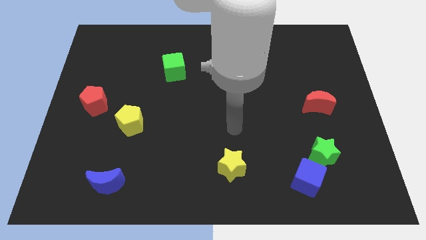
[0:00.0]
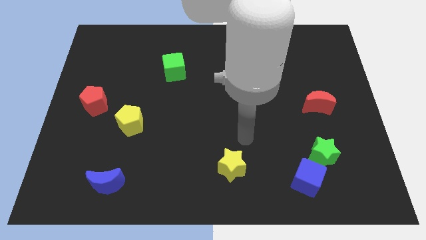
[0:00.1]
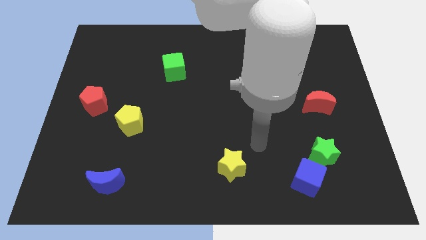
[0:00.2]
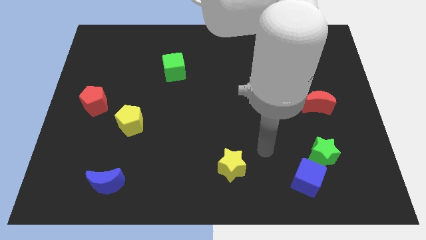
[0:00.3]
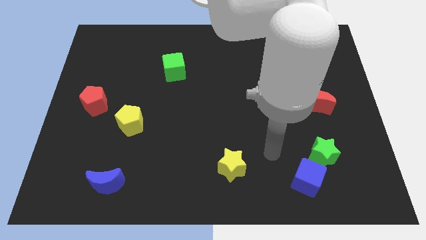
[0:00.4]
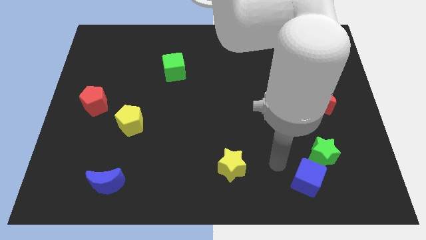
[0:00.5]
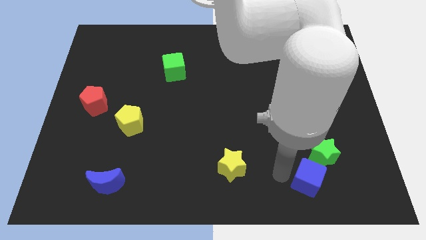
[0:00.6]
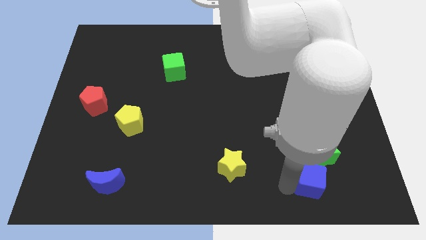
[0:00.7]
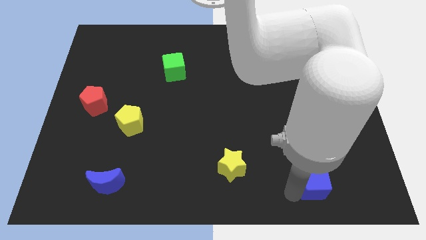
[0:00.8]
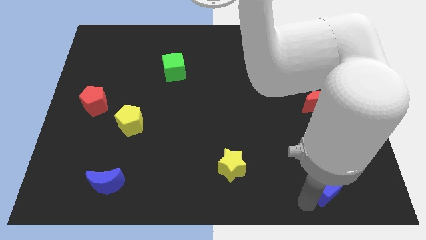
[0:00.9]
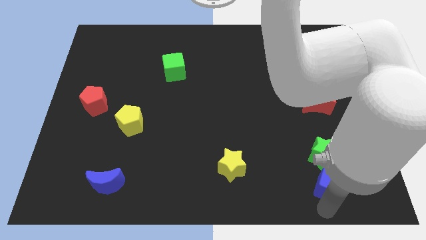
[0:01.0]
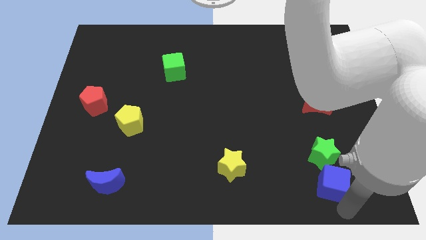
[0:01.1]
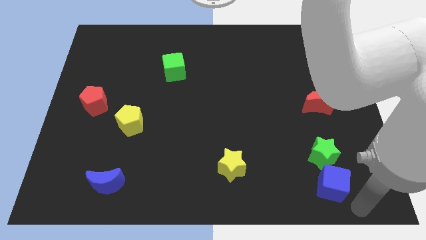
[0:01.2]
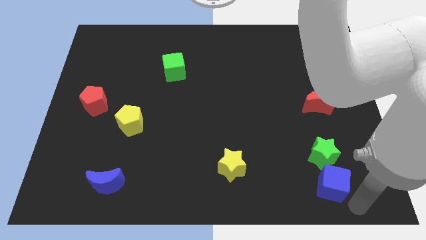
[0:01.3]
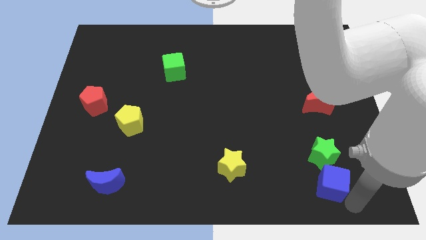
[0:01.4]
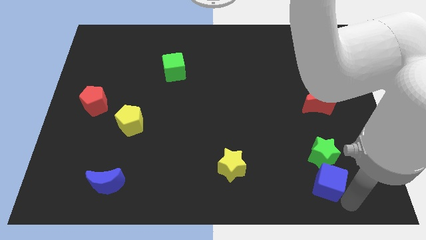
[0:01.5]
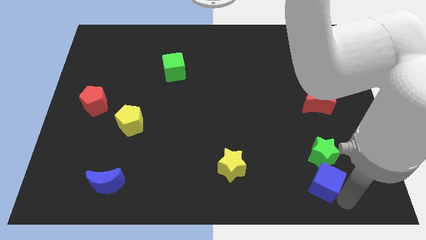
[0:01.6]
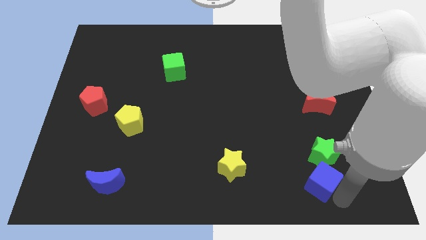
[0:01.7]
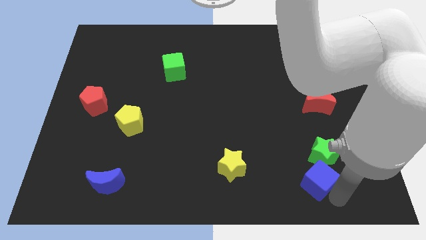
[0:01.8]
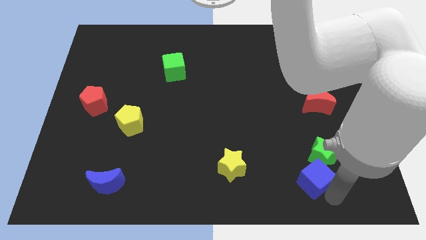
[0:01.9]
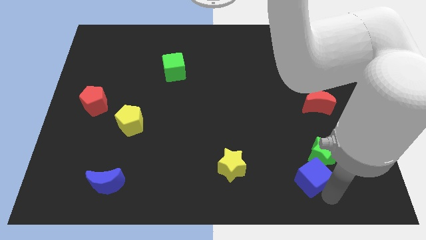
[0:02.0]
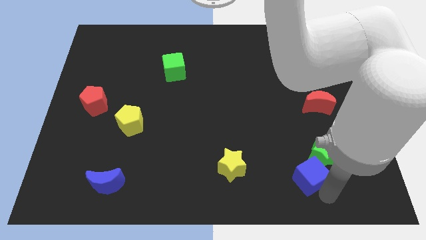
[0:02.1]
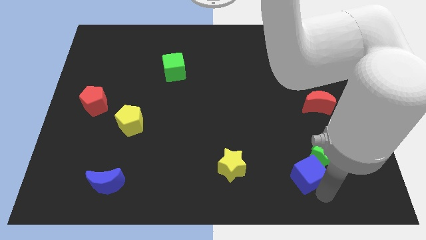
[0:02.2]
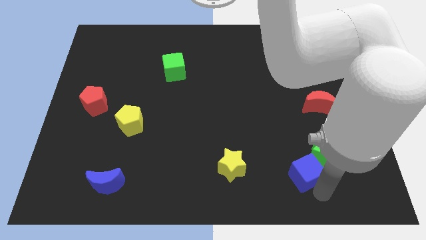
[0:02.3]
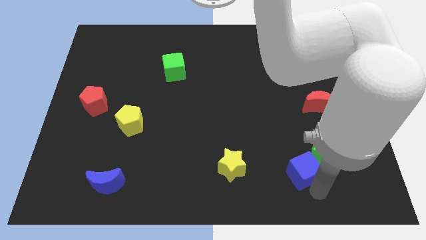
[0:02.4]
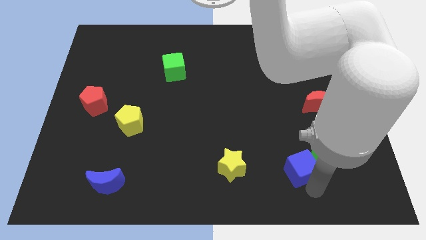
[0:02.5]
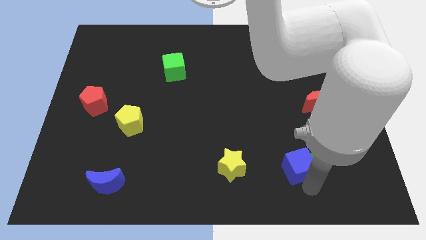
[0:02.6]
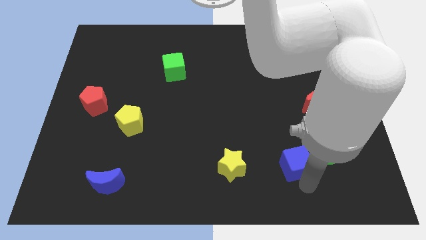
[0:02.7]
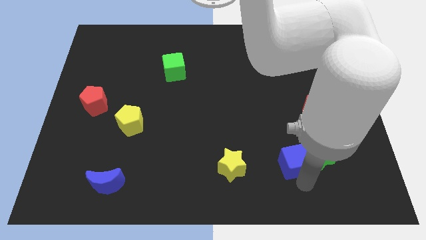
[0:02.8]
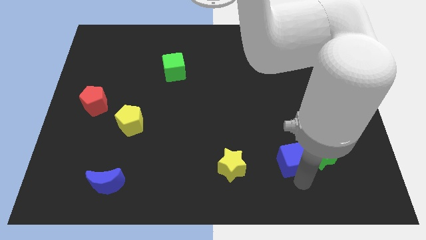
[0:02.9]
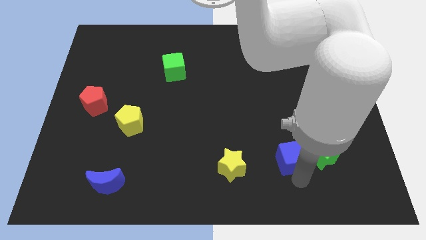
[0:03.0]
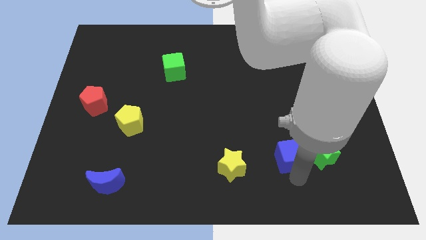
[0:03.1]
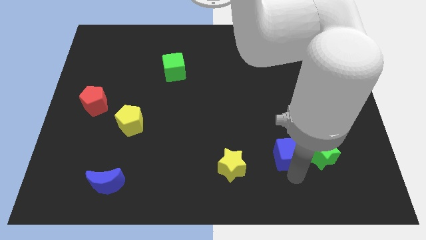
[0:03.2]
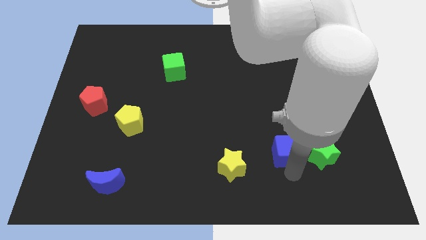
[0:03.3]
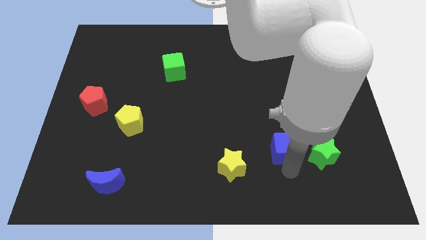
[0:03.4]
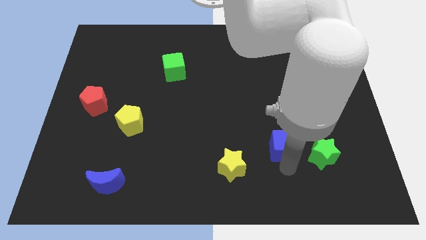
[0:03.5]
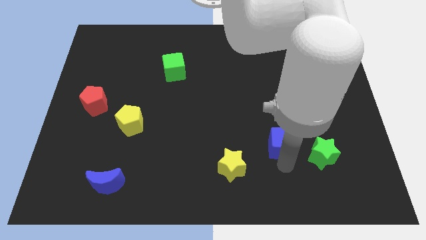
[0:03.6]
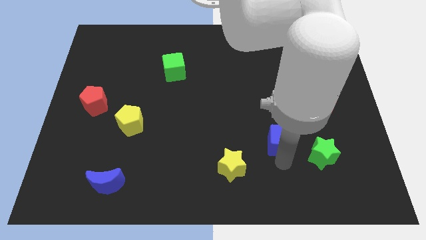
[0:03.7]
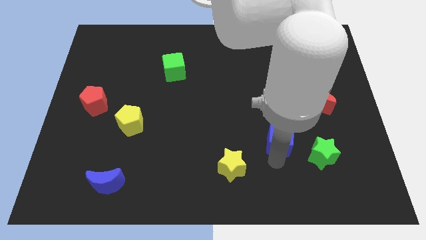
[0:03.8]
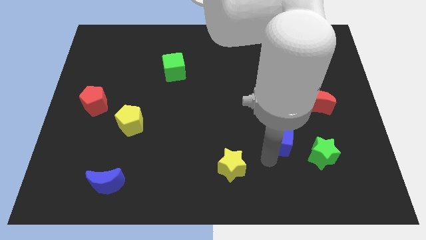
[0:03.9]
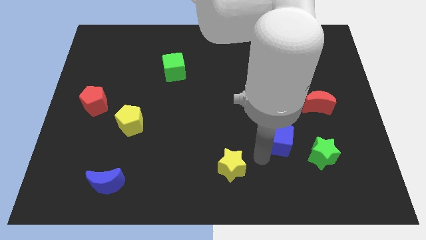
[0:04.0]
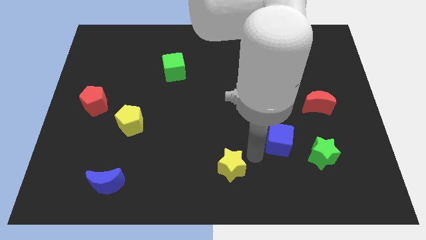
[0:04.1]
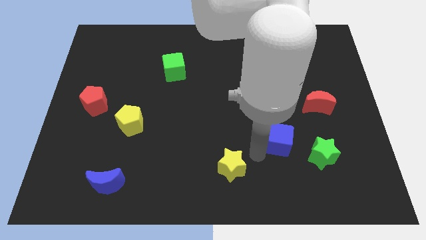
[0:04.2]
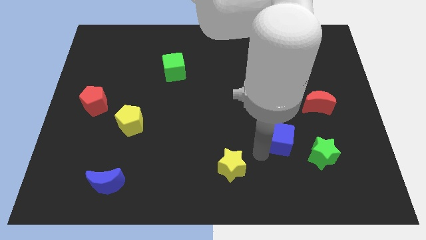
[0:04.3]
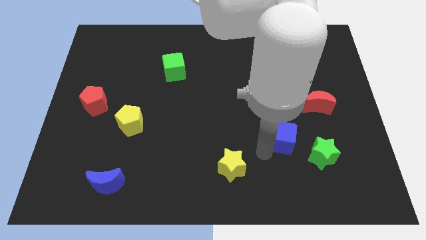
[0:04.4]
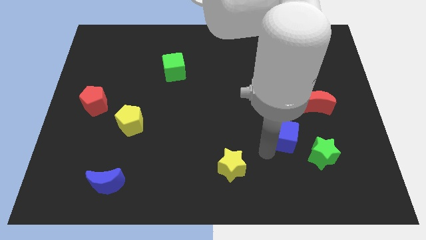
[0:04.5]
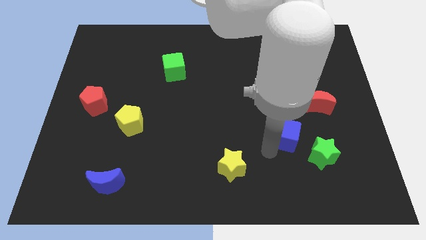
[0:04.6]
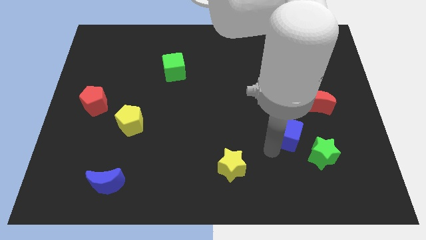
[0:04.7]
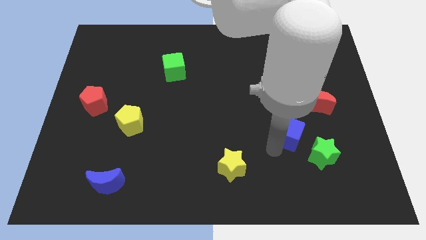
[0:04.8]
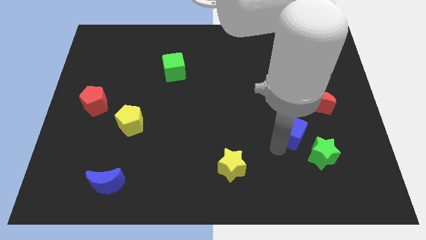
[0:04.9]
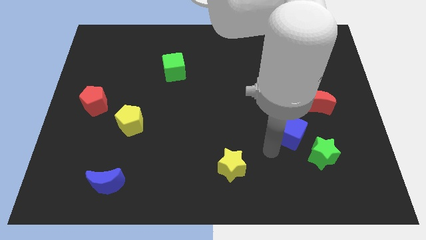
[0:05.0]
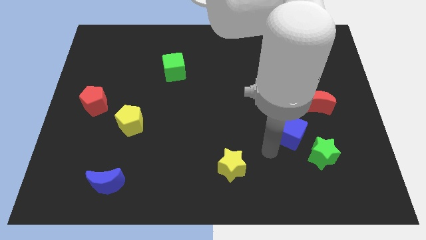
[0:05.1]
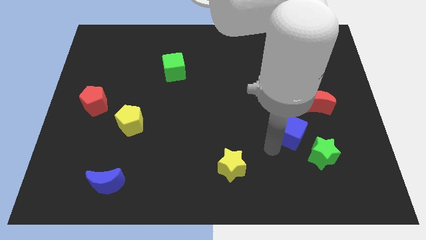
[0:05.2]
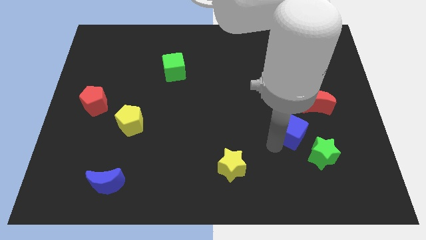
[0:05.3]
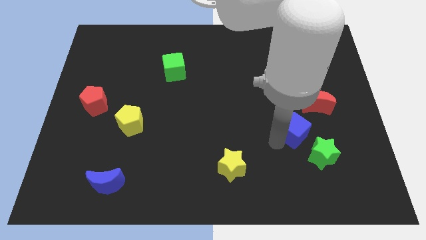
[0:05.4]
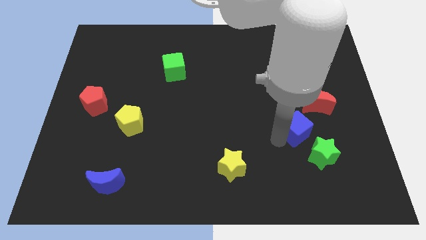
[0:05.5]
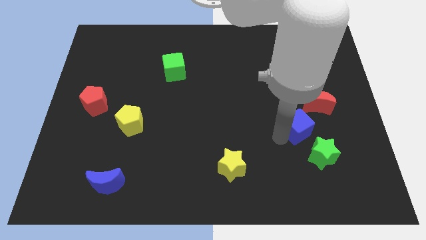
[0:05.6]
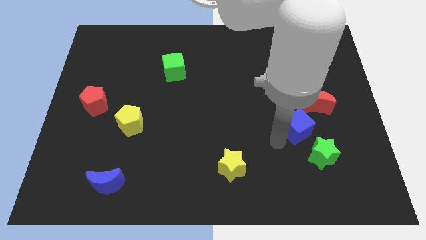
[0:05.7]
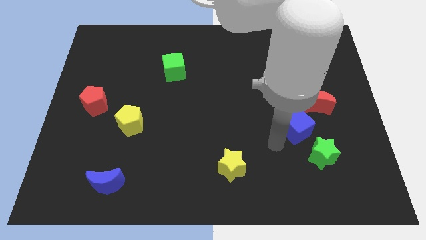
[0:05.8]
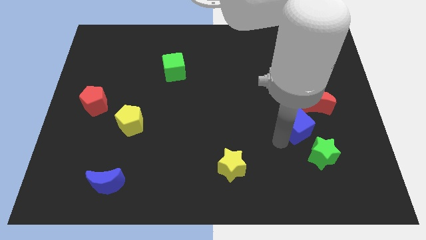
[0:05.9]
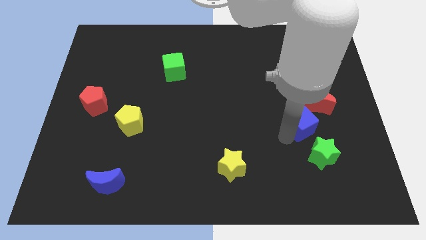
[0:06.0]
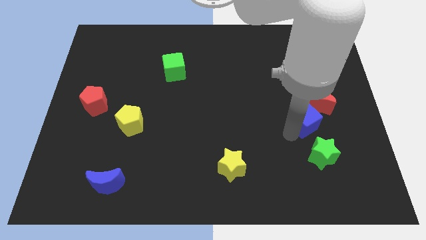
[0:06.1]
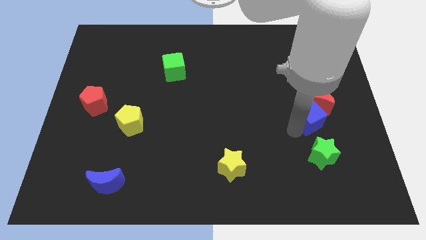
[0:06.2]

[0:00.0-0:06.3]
slide the blue cube to the red moon
